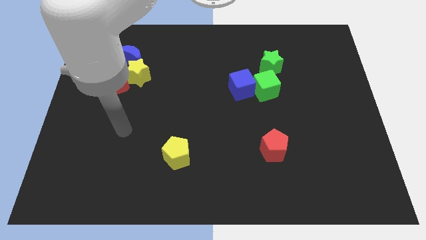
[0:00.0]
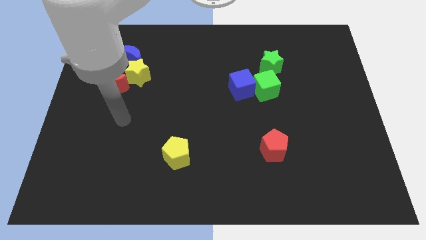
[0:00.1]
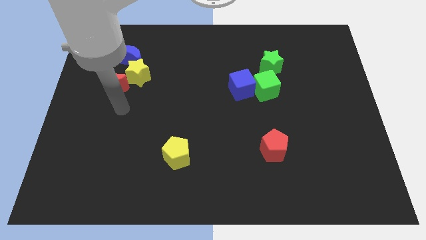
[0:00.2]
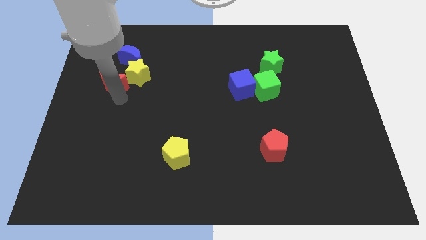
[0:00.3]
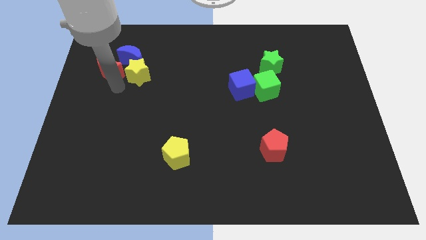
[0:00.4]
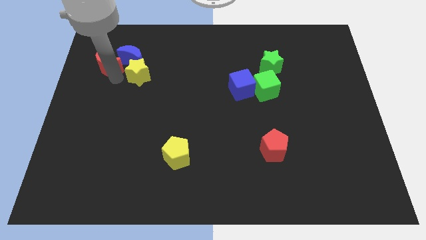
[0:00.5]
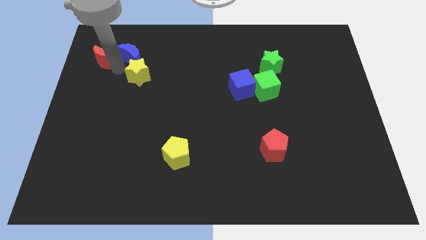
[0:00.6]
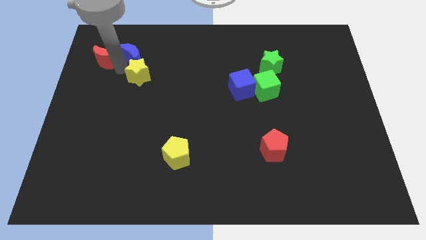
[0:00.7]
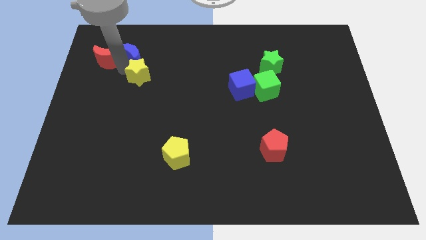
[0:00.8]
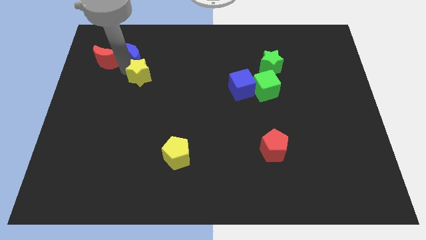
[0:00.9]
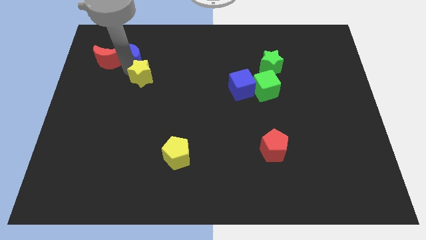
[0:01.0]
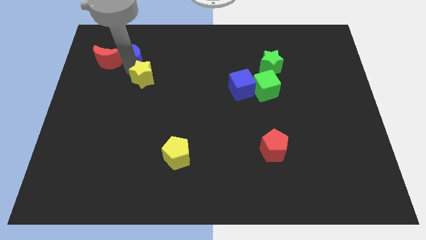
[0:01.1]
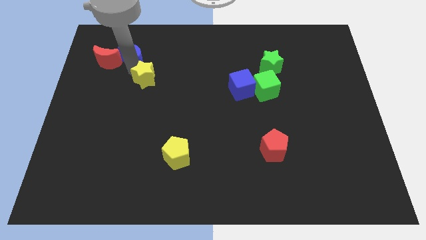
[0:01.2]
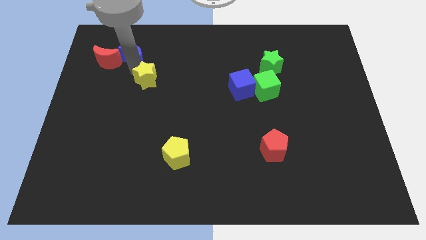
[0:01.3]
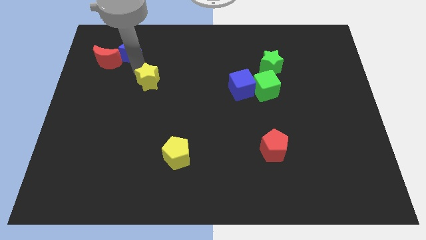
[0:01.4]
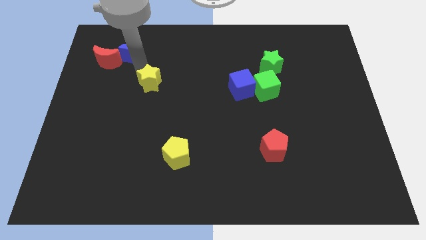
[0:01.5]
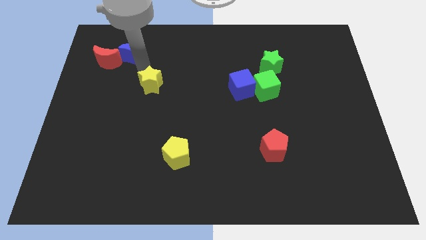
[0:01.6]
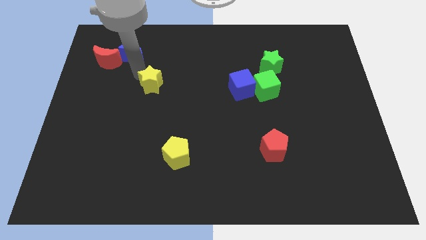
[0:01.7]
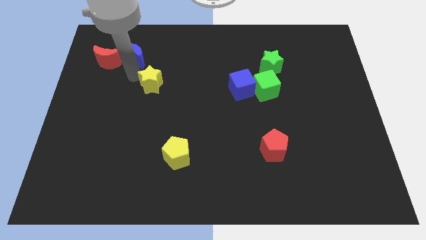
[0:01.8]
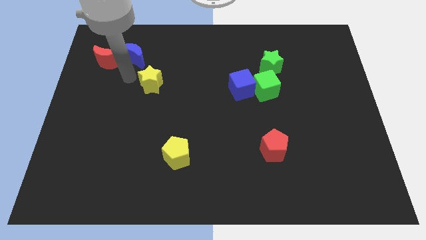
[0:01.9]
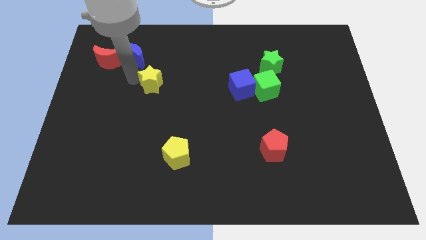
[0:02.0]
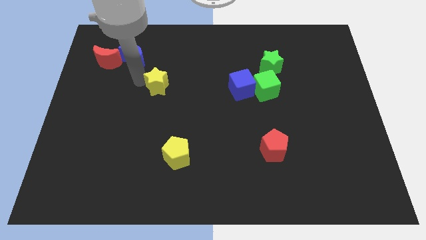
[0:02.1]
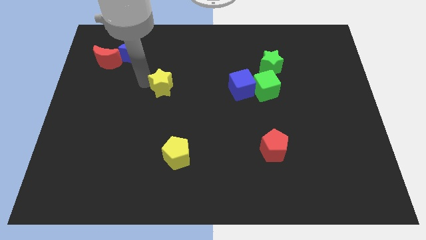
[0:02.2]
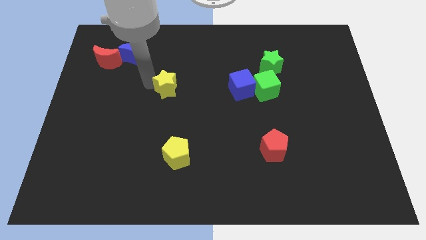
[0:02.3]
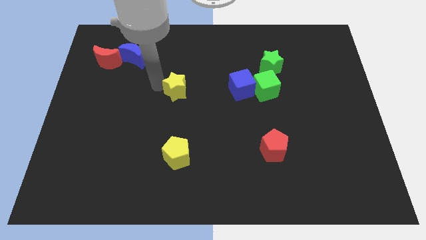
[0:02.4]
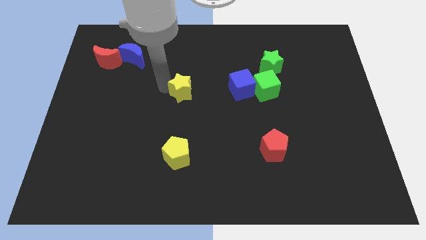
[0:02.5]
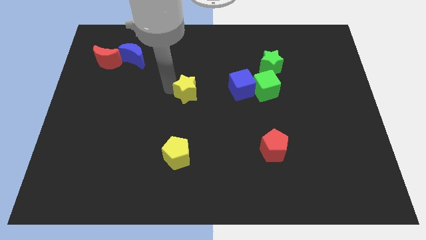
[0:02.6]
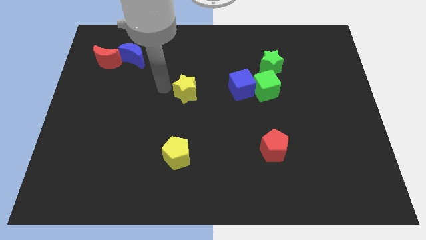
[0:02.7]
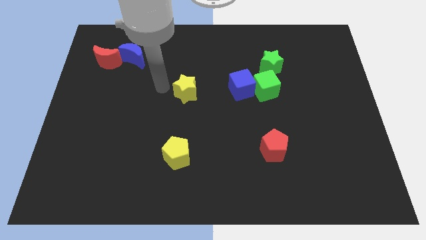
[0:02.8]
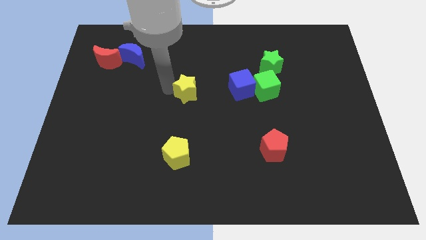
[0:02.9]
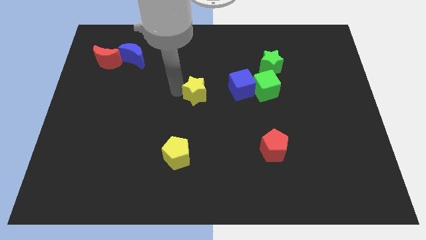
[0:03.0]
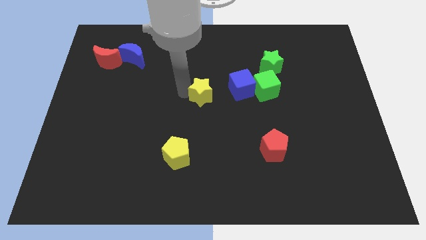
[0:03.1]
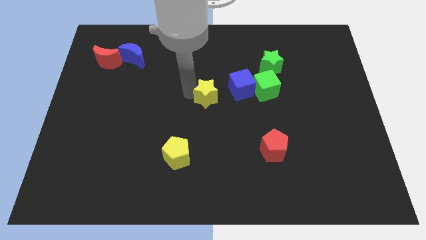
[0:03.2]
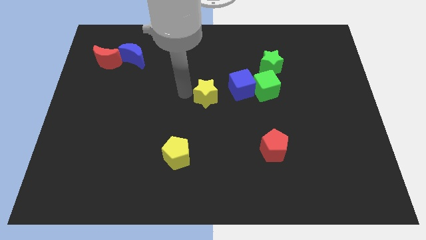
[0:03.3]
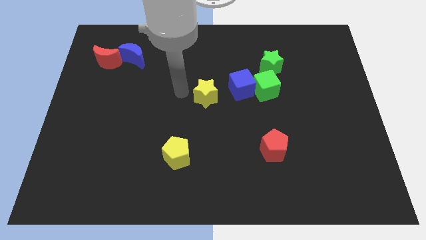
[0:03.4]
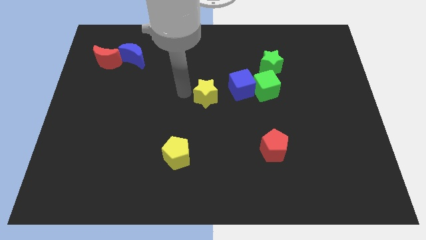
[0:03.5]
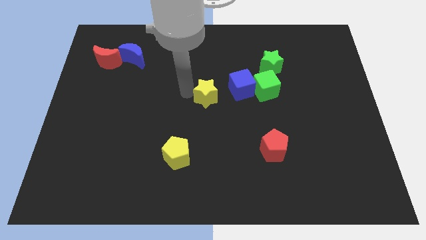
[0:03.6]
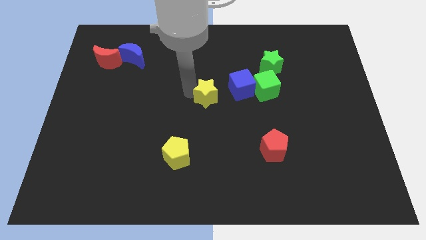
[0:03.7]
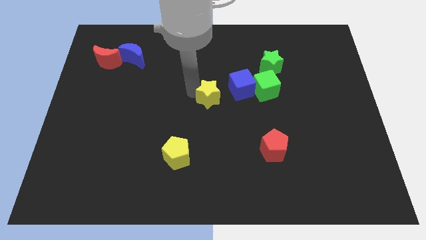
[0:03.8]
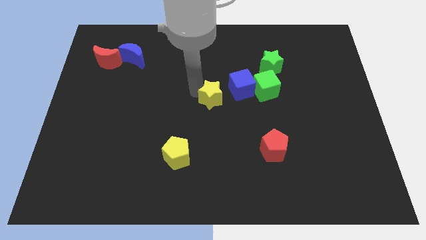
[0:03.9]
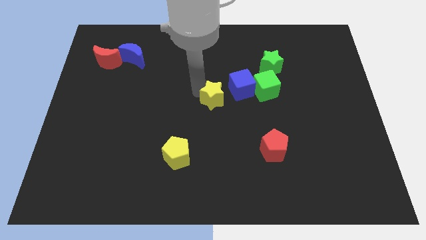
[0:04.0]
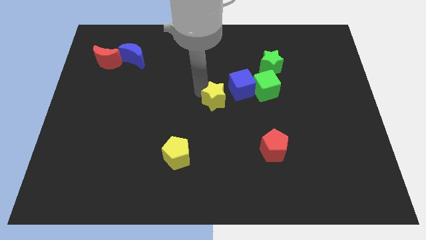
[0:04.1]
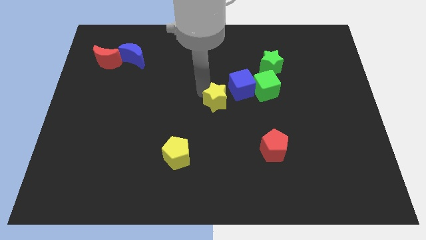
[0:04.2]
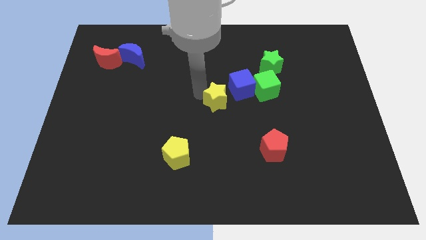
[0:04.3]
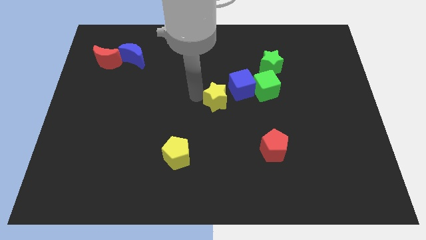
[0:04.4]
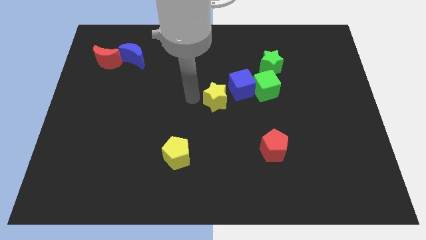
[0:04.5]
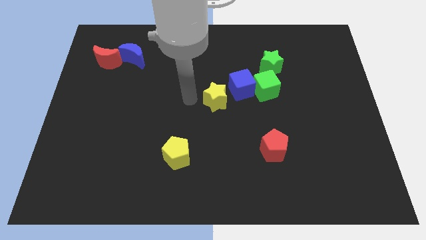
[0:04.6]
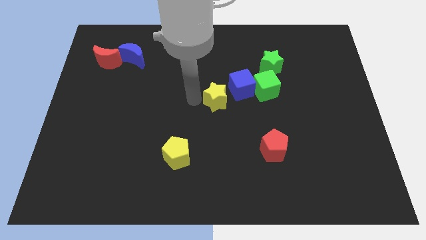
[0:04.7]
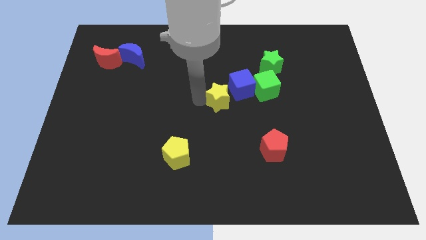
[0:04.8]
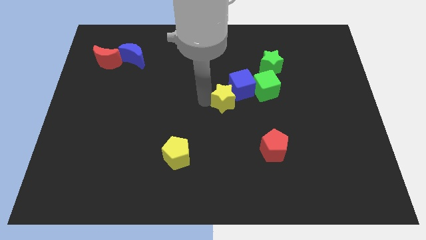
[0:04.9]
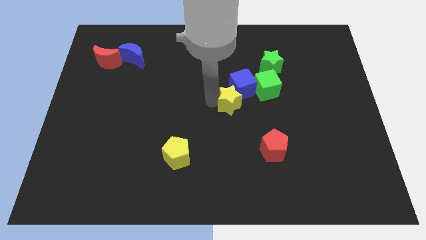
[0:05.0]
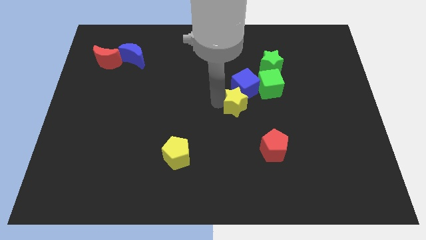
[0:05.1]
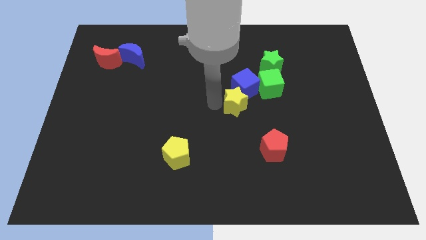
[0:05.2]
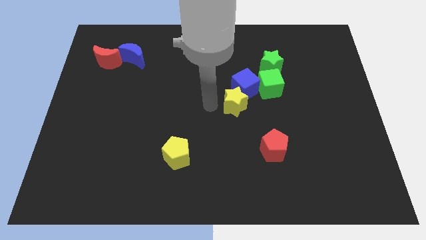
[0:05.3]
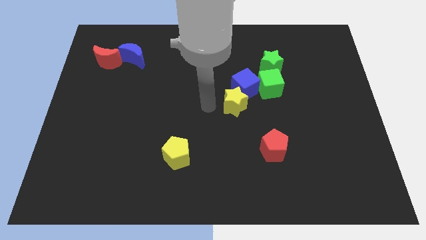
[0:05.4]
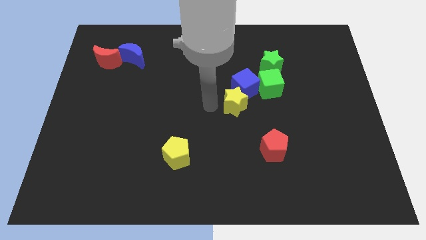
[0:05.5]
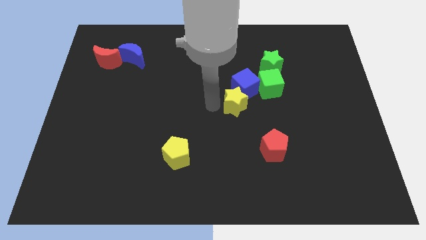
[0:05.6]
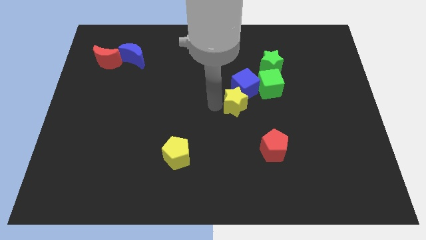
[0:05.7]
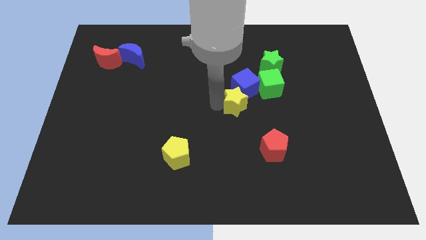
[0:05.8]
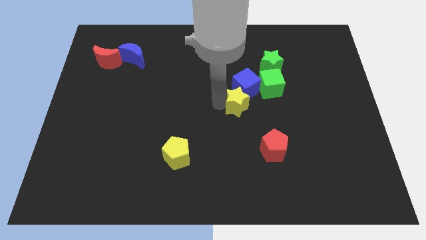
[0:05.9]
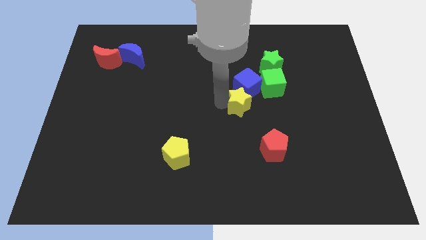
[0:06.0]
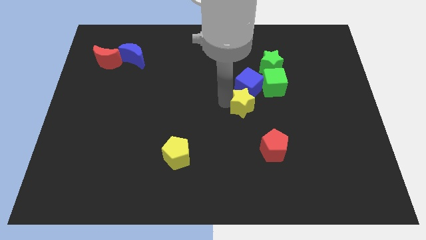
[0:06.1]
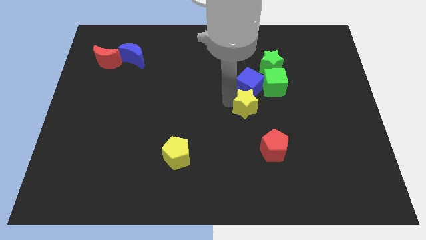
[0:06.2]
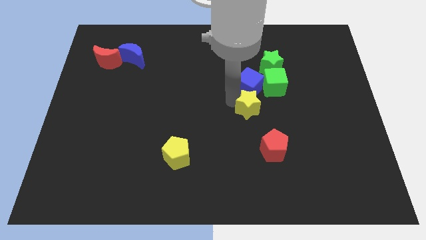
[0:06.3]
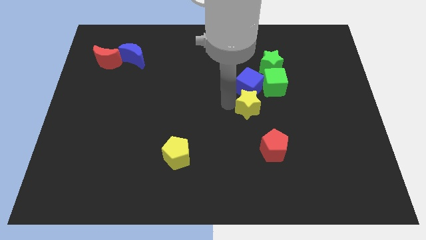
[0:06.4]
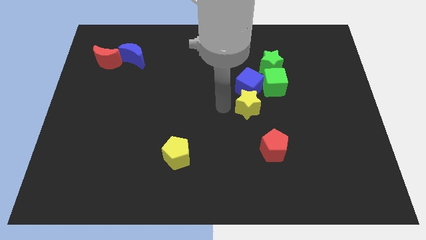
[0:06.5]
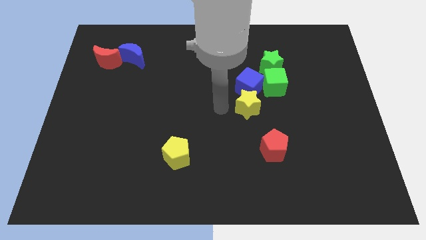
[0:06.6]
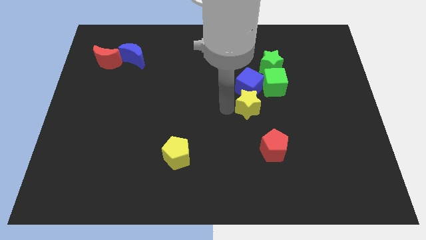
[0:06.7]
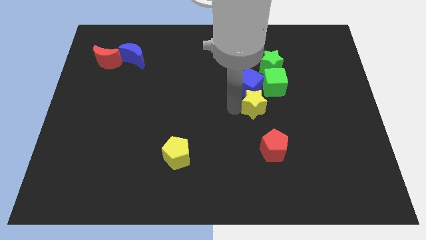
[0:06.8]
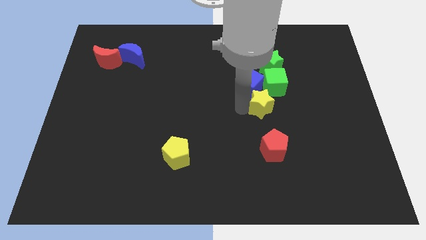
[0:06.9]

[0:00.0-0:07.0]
move the yellow star below the green star

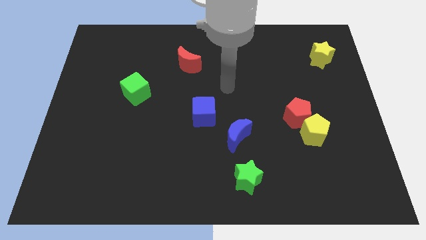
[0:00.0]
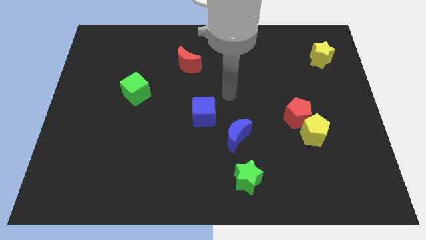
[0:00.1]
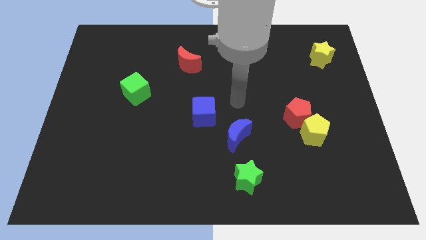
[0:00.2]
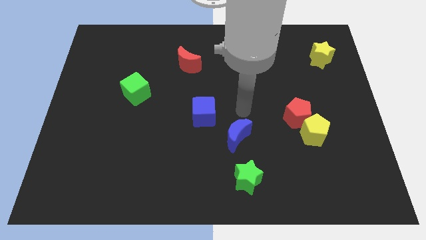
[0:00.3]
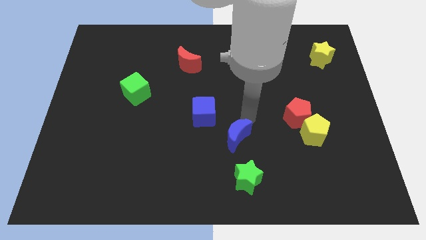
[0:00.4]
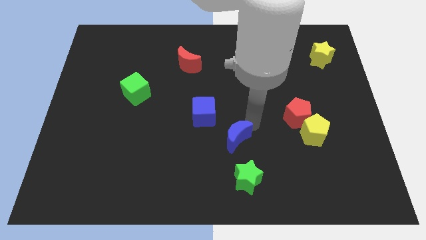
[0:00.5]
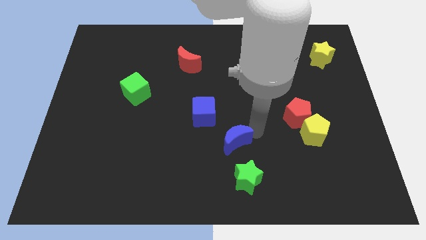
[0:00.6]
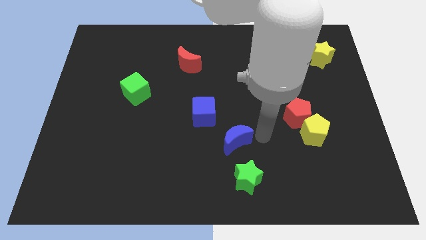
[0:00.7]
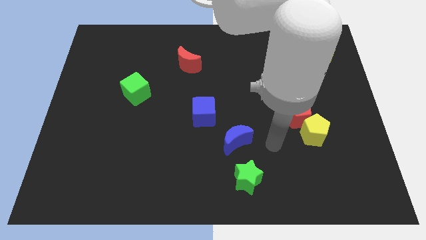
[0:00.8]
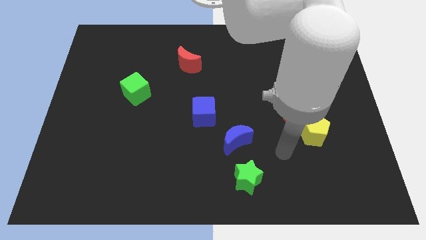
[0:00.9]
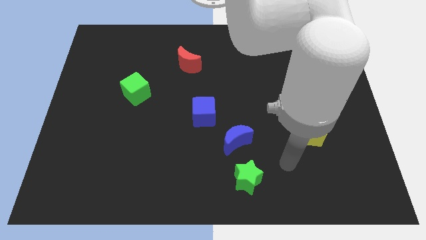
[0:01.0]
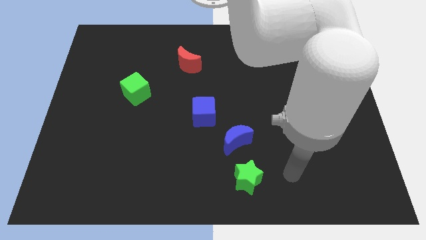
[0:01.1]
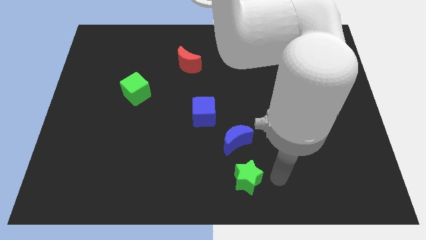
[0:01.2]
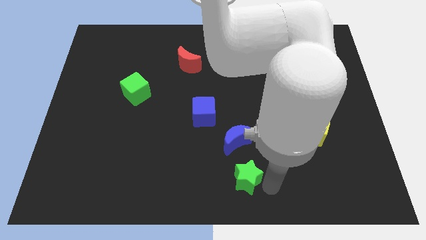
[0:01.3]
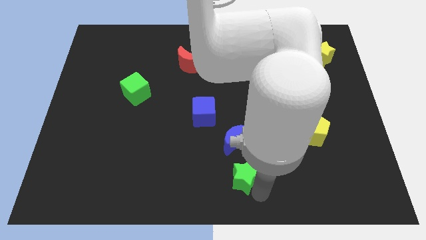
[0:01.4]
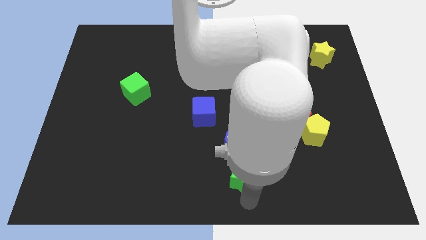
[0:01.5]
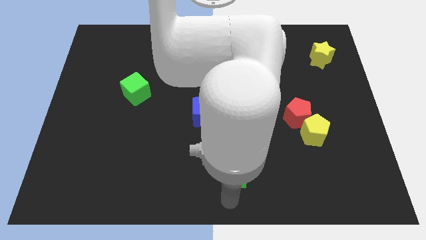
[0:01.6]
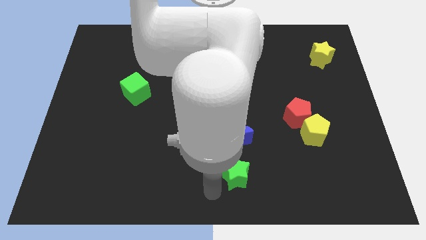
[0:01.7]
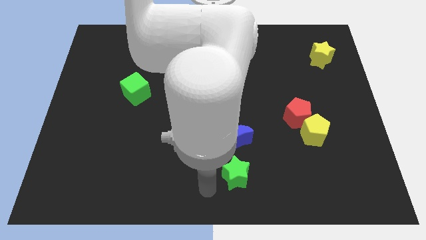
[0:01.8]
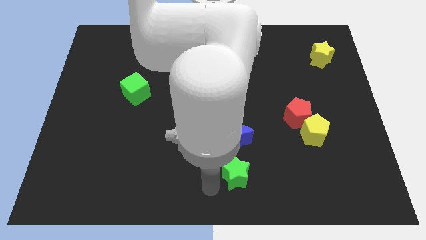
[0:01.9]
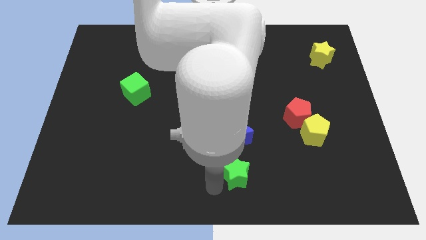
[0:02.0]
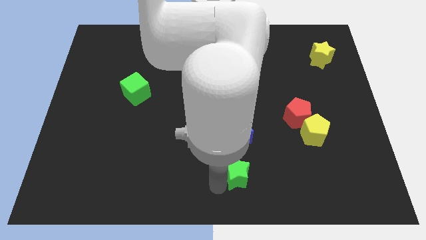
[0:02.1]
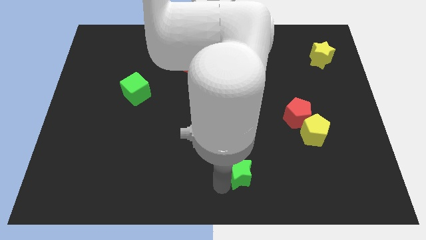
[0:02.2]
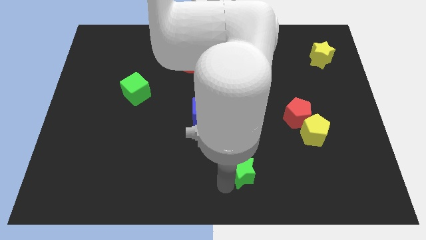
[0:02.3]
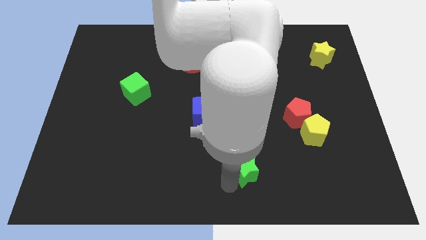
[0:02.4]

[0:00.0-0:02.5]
move the green star to the bottom right of the blue moon
